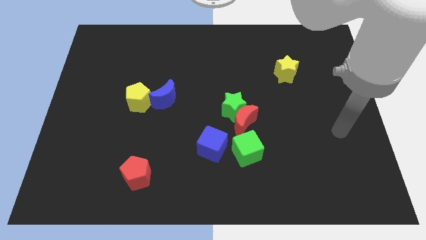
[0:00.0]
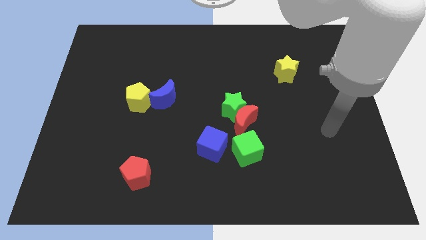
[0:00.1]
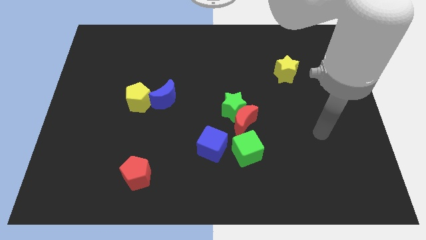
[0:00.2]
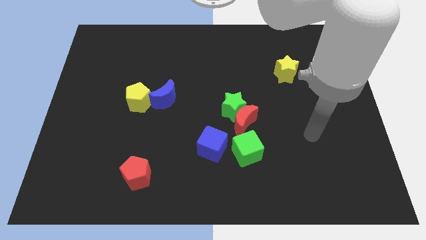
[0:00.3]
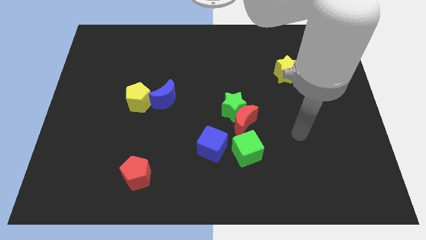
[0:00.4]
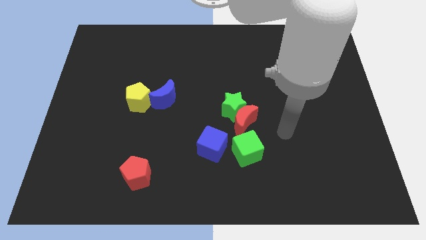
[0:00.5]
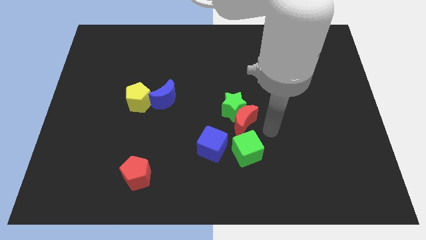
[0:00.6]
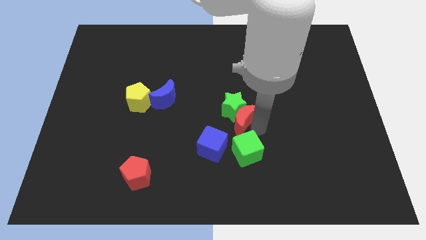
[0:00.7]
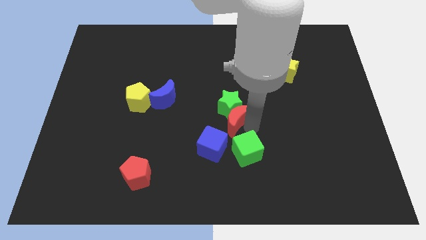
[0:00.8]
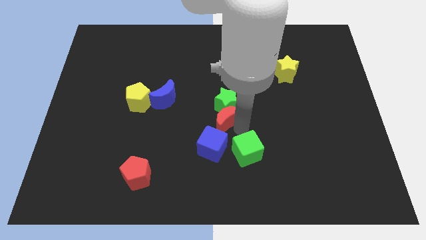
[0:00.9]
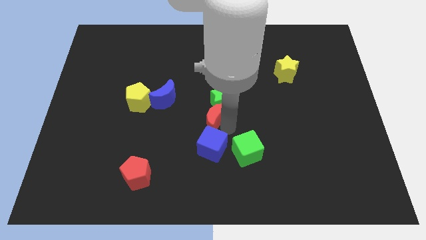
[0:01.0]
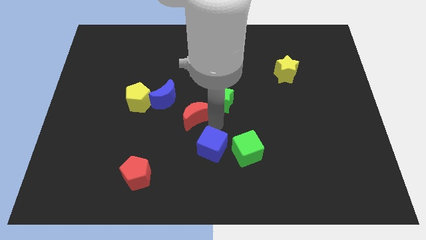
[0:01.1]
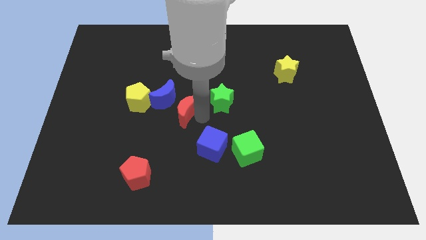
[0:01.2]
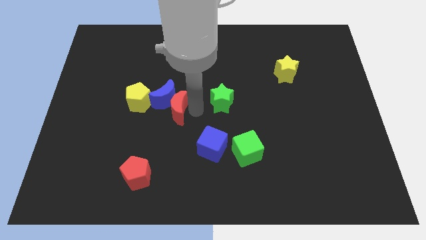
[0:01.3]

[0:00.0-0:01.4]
separate the green star from the red moon

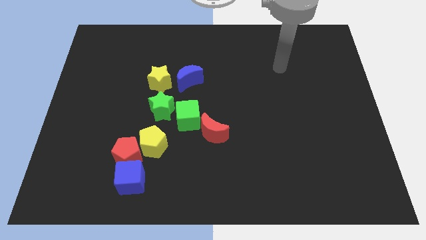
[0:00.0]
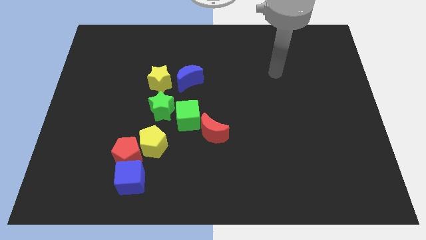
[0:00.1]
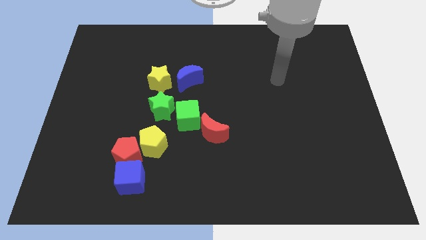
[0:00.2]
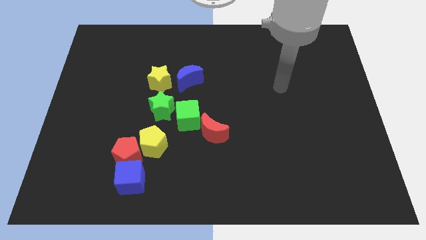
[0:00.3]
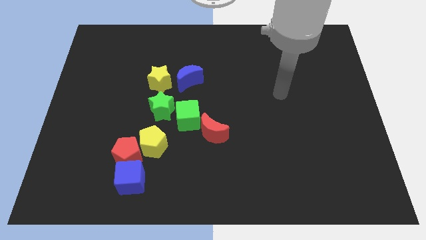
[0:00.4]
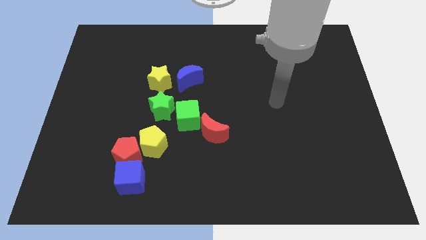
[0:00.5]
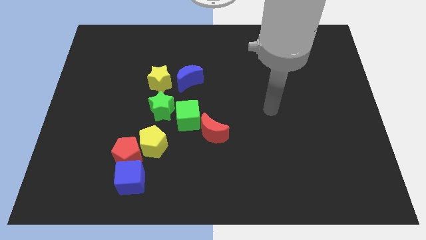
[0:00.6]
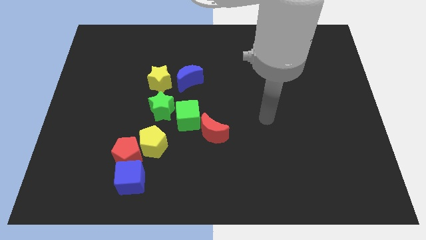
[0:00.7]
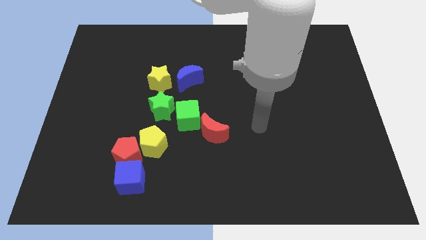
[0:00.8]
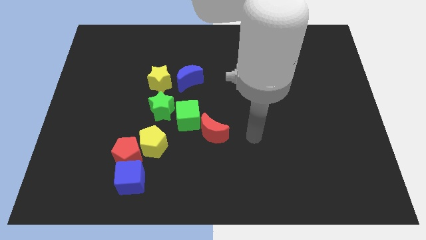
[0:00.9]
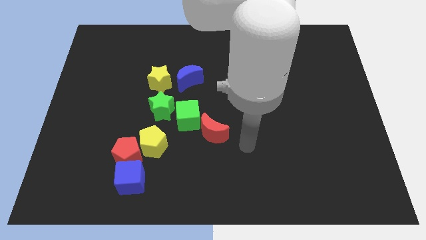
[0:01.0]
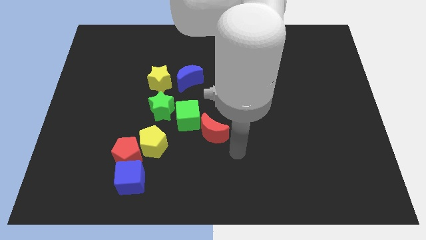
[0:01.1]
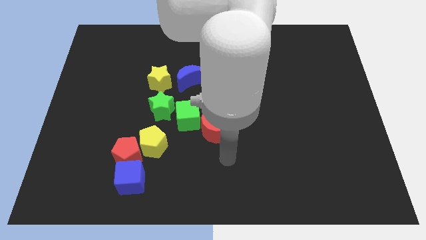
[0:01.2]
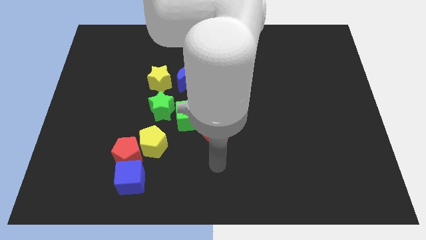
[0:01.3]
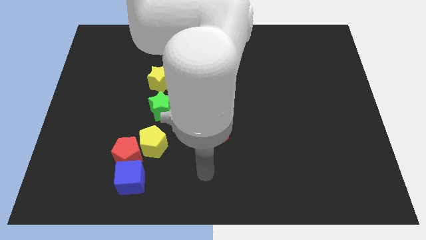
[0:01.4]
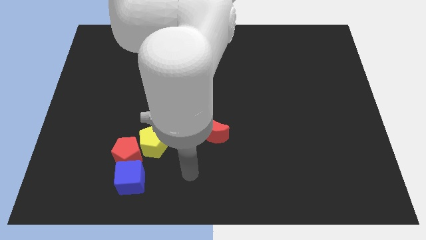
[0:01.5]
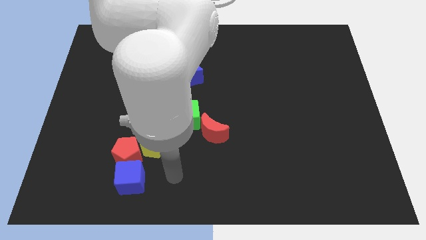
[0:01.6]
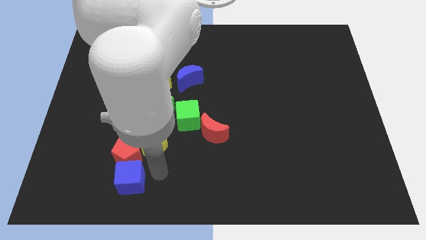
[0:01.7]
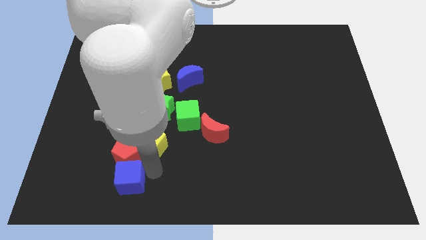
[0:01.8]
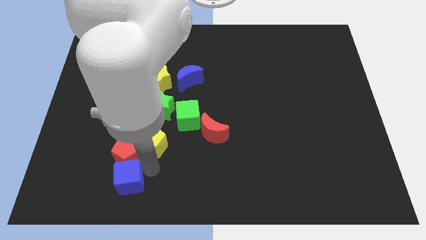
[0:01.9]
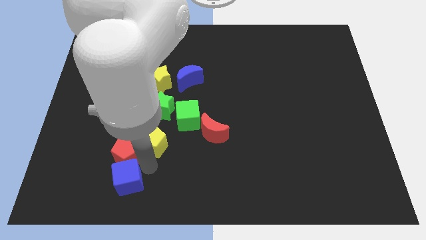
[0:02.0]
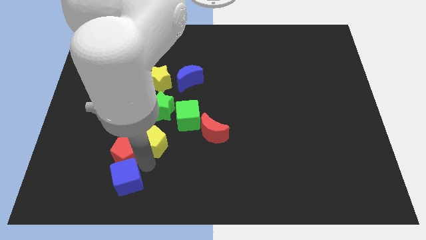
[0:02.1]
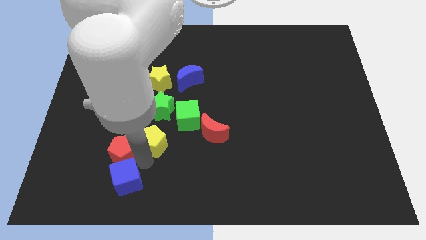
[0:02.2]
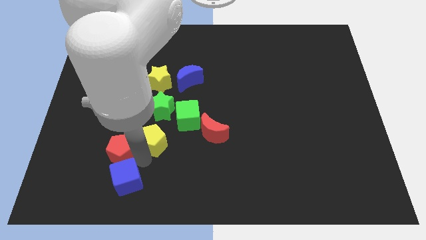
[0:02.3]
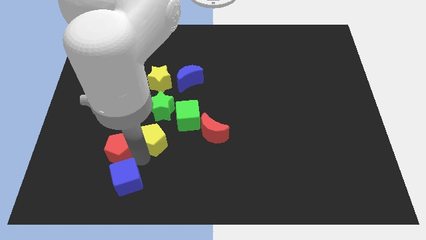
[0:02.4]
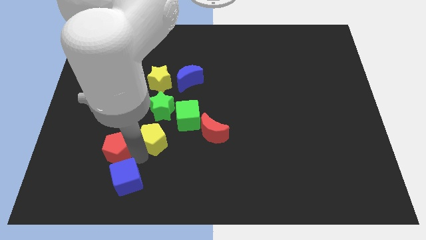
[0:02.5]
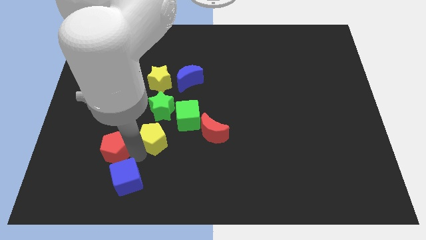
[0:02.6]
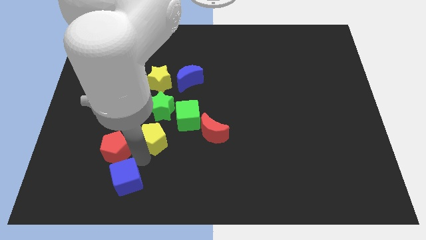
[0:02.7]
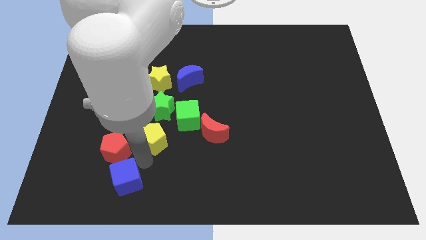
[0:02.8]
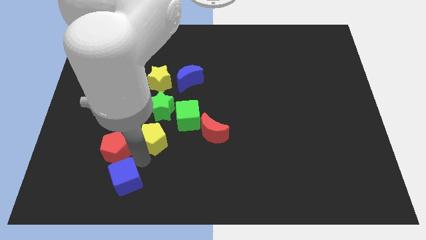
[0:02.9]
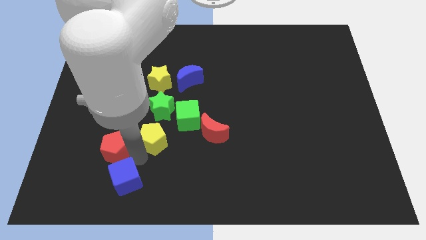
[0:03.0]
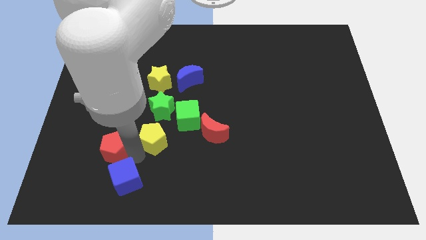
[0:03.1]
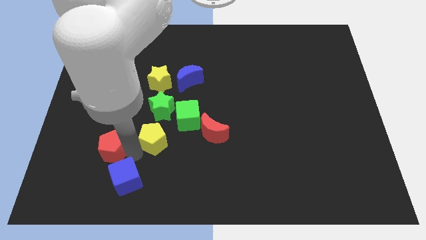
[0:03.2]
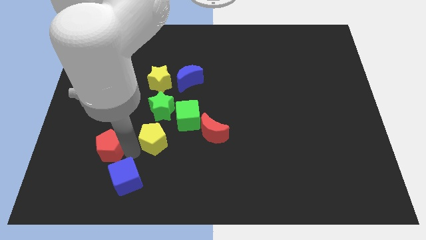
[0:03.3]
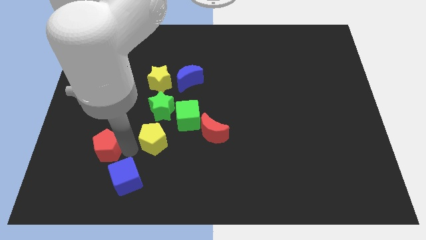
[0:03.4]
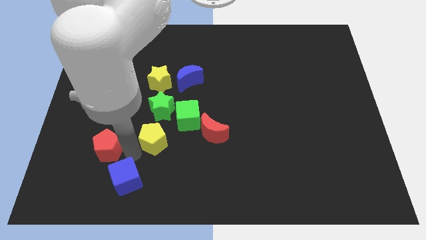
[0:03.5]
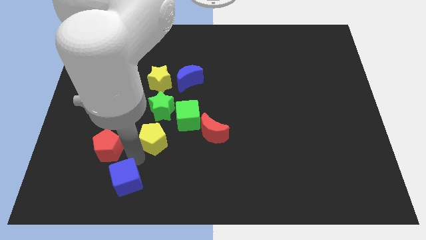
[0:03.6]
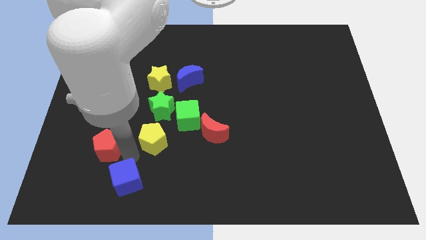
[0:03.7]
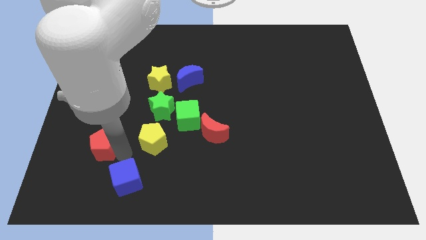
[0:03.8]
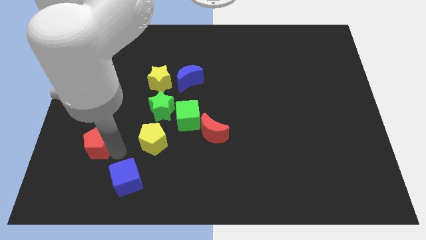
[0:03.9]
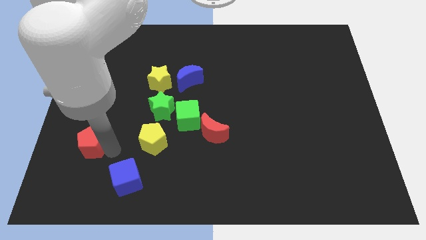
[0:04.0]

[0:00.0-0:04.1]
pull the red pentagon apart from the yellow pentagon and blue cube

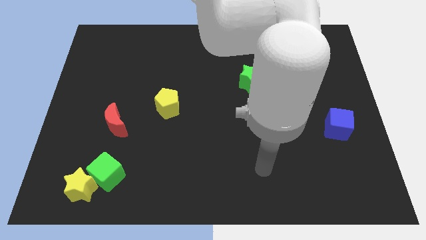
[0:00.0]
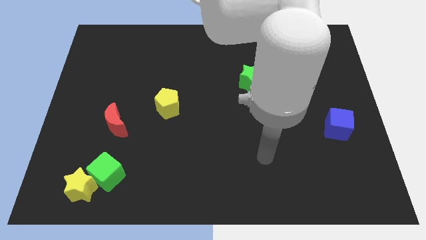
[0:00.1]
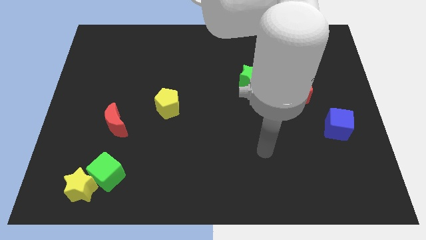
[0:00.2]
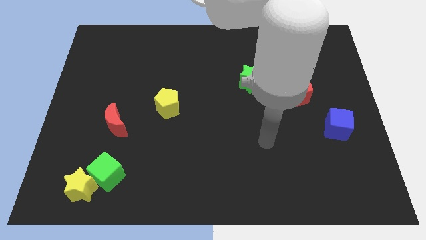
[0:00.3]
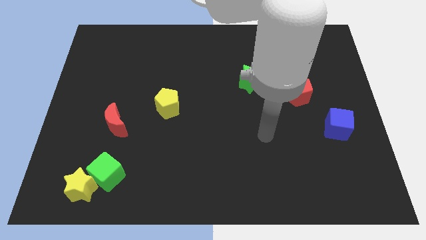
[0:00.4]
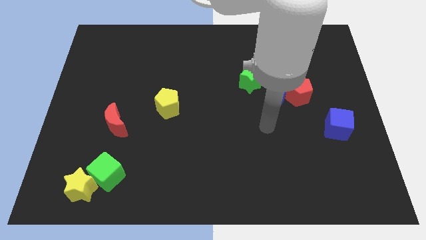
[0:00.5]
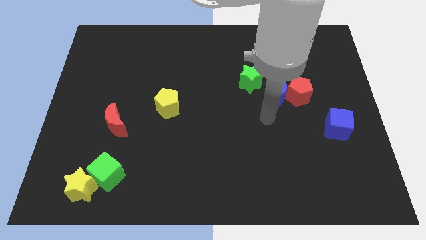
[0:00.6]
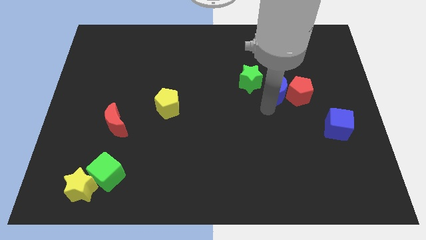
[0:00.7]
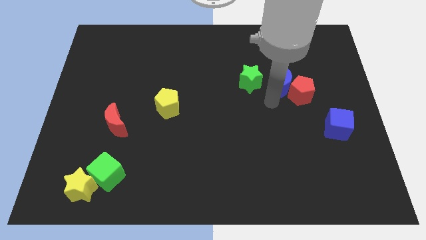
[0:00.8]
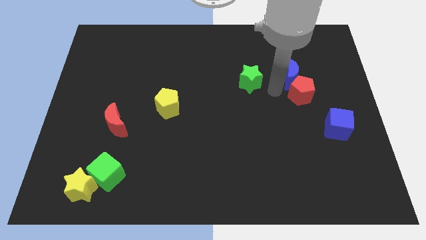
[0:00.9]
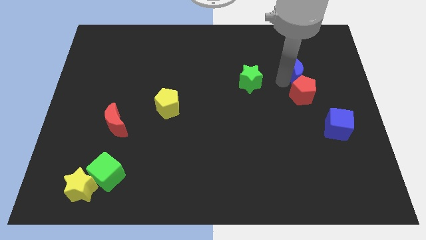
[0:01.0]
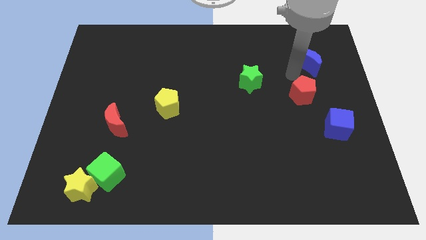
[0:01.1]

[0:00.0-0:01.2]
move the red pentagon away from the blue moon

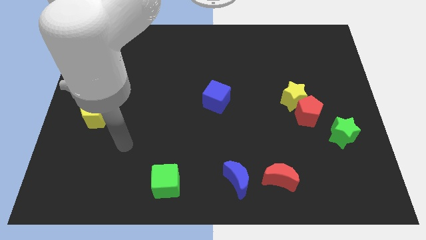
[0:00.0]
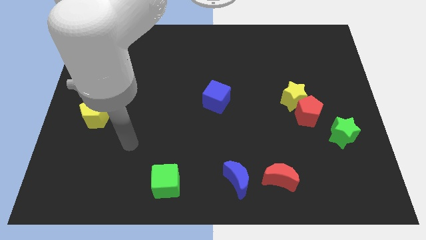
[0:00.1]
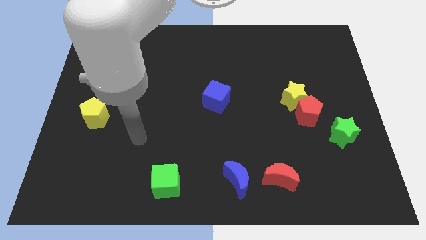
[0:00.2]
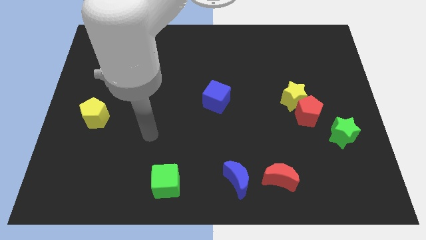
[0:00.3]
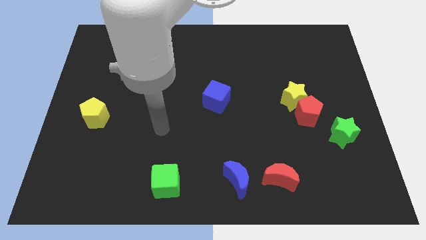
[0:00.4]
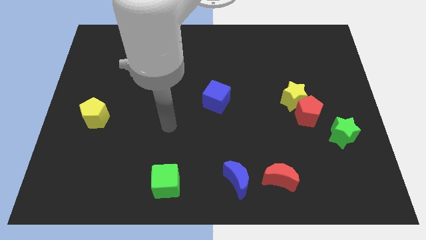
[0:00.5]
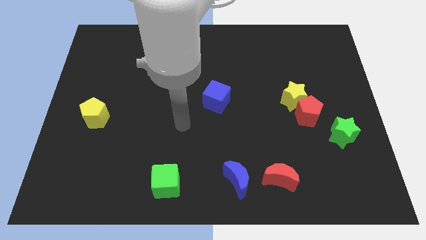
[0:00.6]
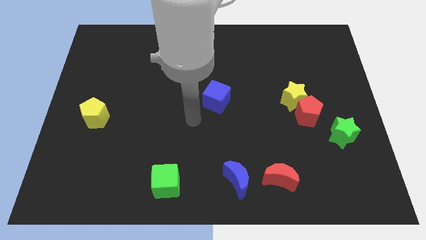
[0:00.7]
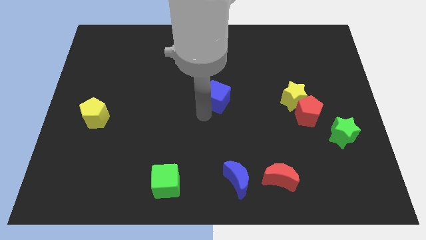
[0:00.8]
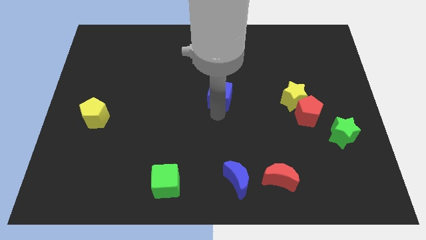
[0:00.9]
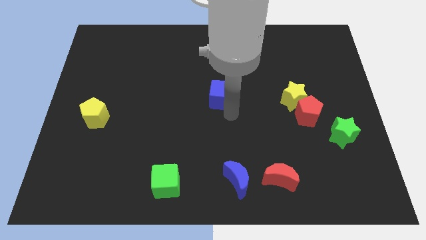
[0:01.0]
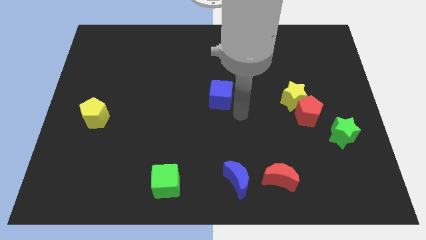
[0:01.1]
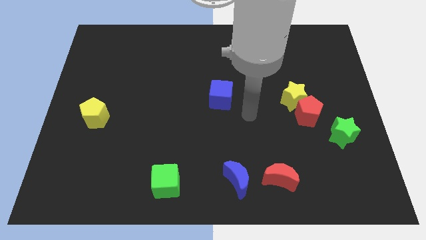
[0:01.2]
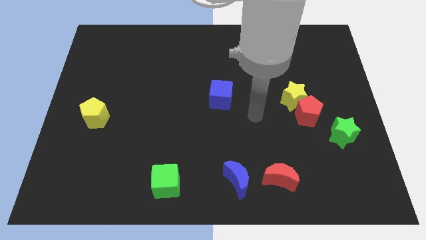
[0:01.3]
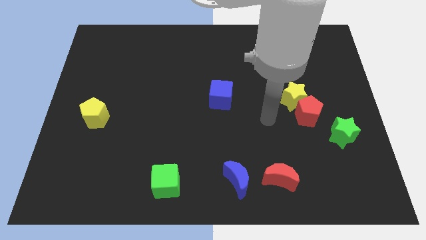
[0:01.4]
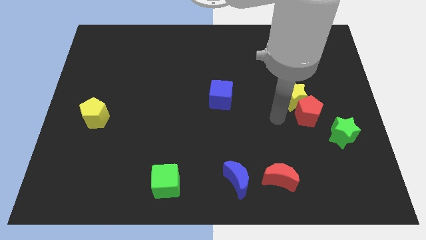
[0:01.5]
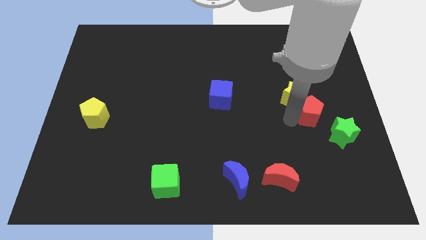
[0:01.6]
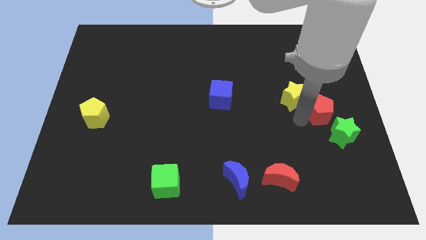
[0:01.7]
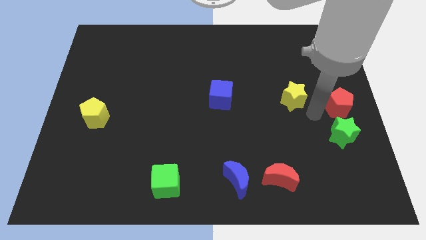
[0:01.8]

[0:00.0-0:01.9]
move the yellow star away from the red pentagon

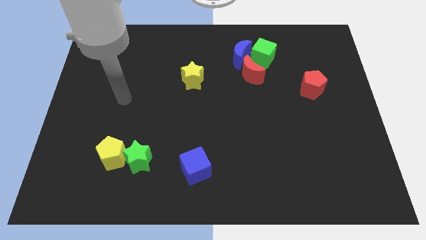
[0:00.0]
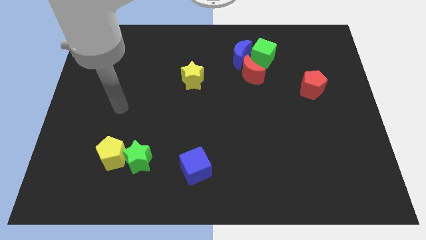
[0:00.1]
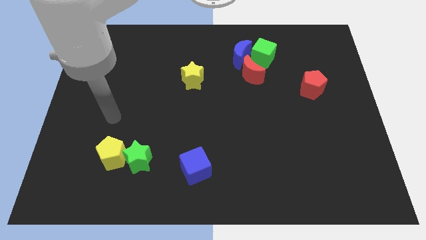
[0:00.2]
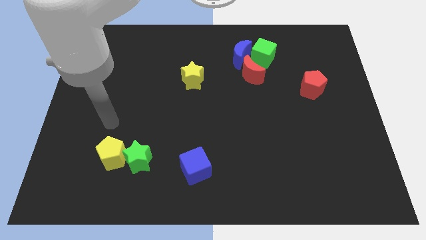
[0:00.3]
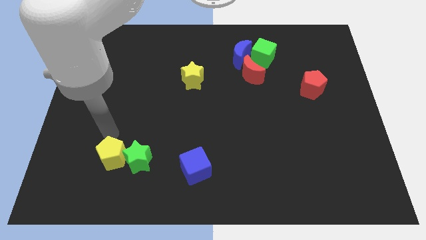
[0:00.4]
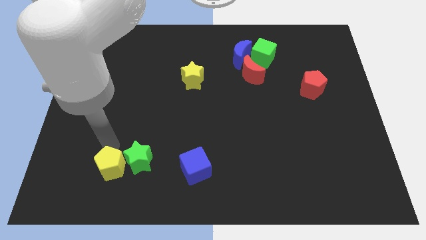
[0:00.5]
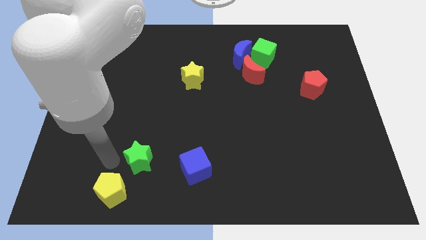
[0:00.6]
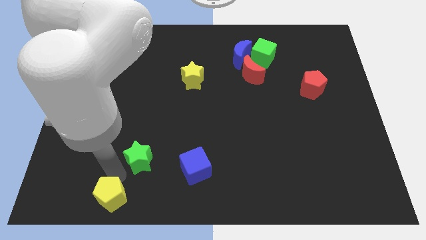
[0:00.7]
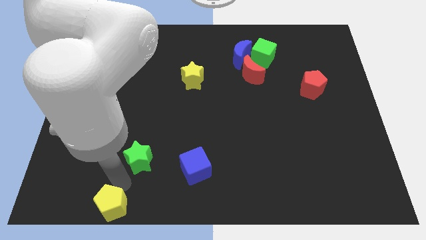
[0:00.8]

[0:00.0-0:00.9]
pull the green star apart from the yellow pentagon

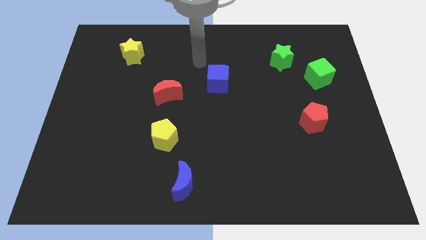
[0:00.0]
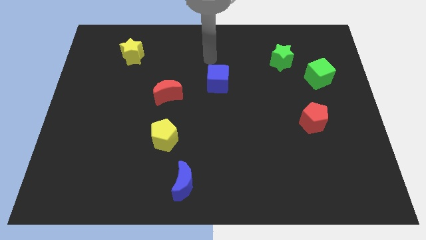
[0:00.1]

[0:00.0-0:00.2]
separate the green cube from the green star
